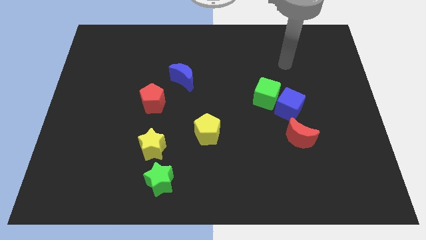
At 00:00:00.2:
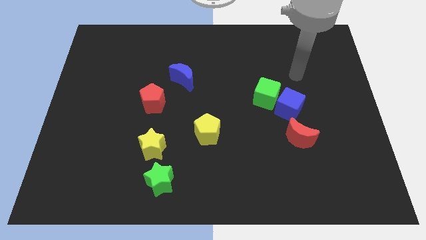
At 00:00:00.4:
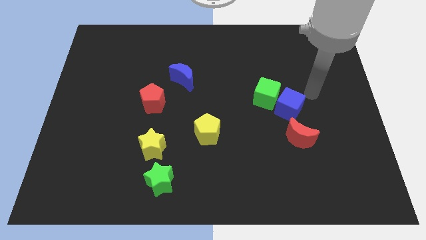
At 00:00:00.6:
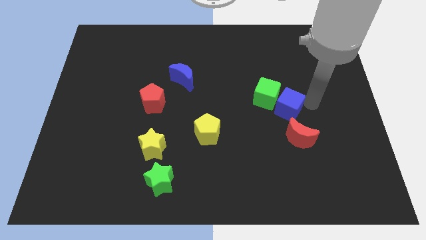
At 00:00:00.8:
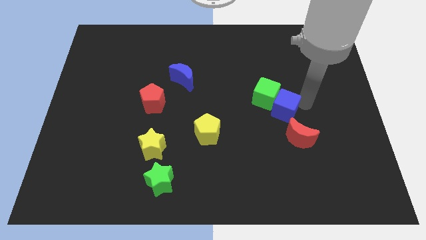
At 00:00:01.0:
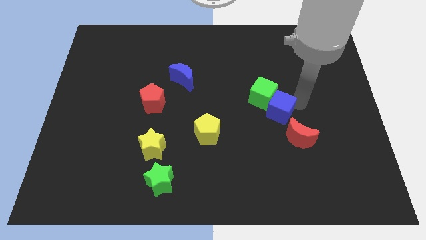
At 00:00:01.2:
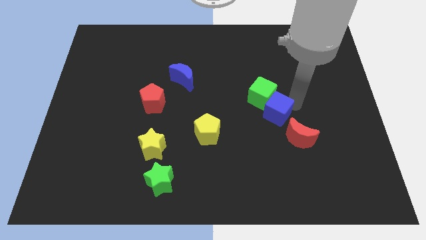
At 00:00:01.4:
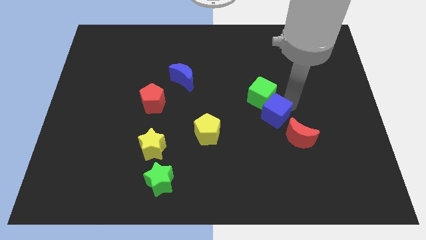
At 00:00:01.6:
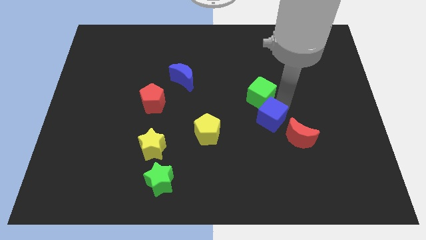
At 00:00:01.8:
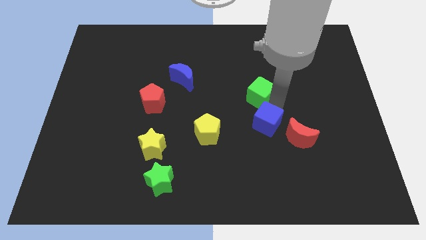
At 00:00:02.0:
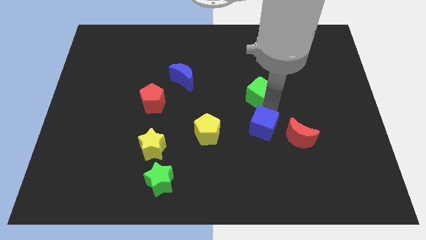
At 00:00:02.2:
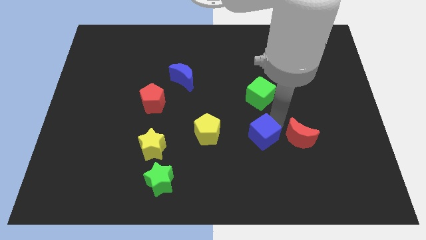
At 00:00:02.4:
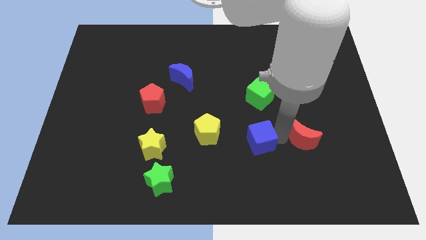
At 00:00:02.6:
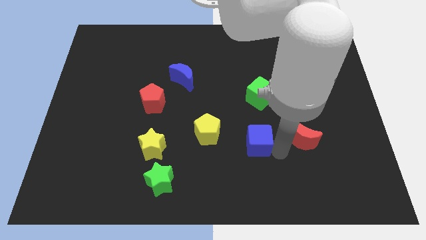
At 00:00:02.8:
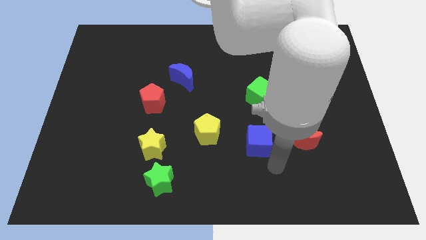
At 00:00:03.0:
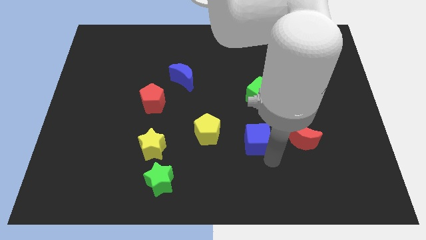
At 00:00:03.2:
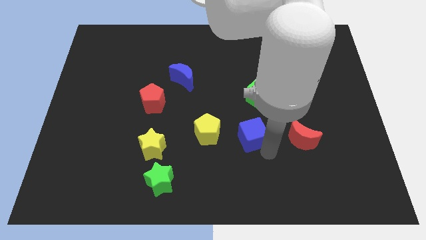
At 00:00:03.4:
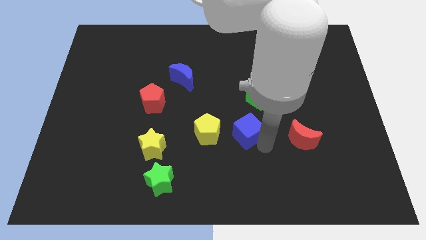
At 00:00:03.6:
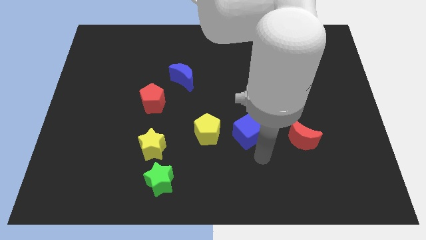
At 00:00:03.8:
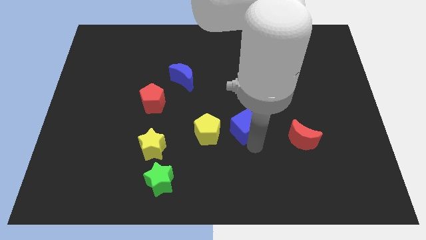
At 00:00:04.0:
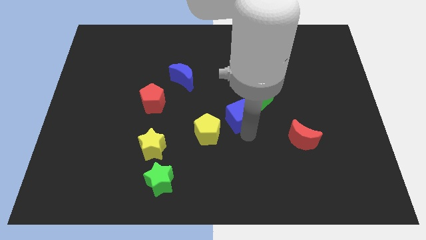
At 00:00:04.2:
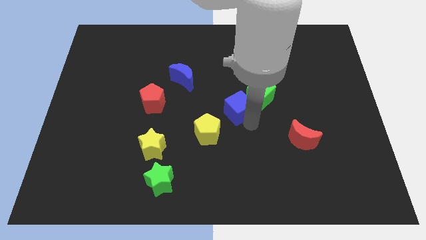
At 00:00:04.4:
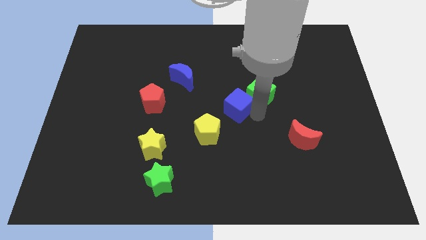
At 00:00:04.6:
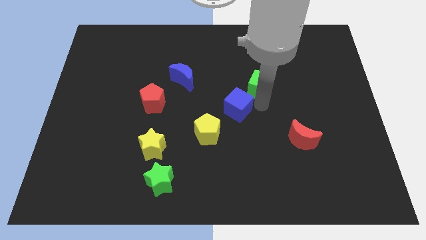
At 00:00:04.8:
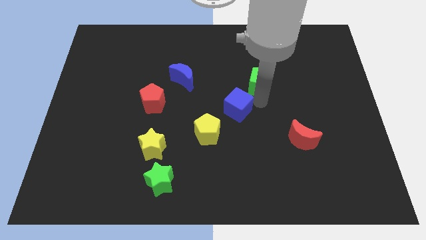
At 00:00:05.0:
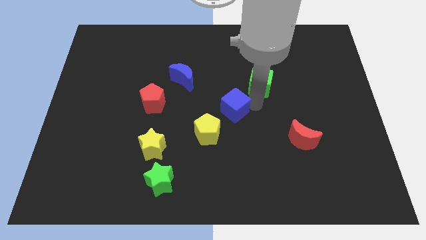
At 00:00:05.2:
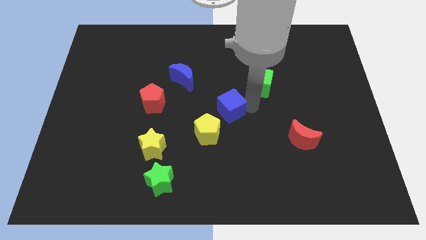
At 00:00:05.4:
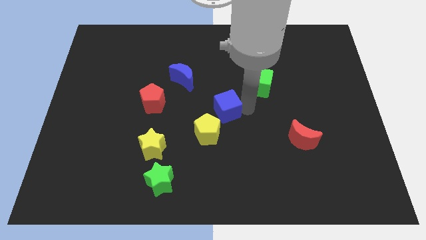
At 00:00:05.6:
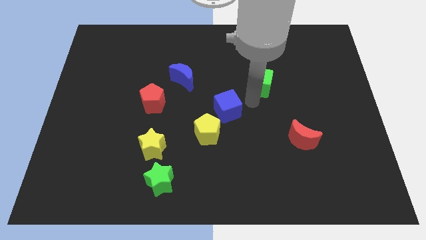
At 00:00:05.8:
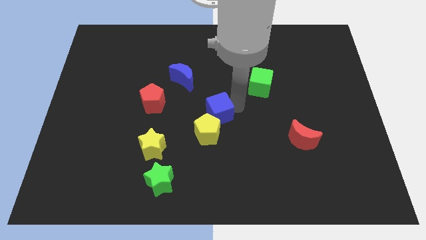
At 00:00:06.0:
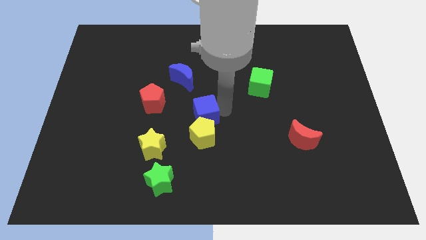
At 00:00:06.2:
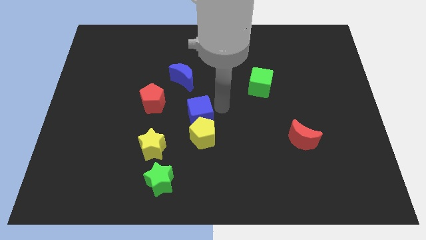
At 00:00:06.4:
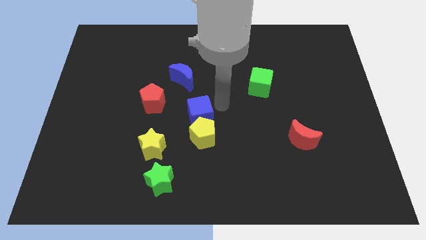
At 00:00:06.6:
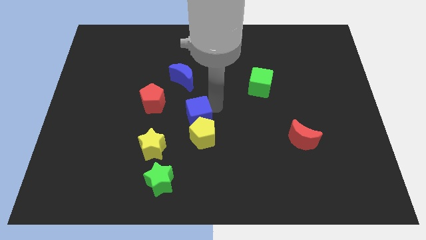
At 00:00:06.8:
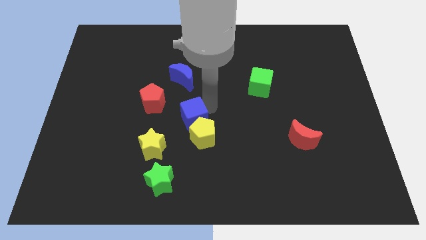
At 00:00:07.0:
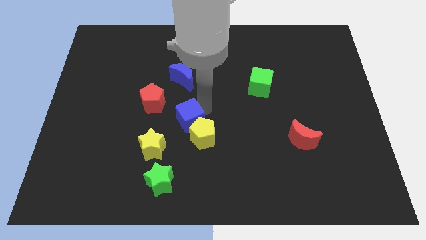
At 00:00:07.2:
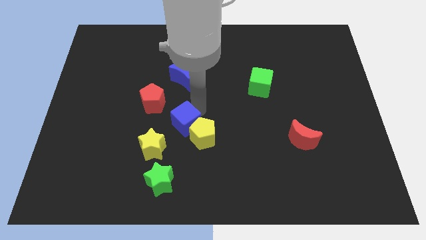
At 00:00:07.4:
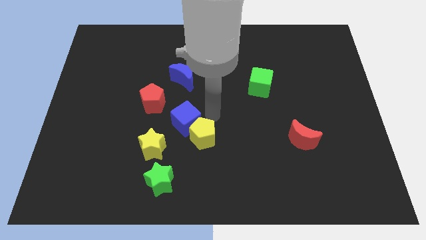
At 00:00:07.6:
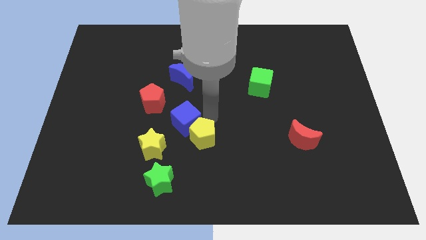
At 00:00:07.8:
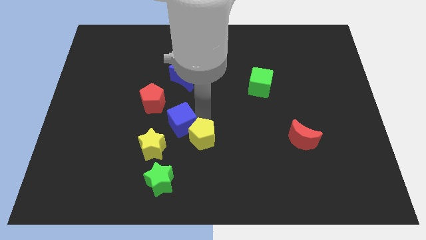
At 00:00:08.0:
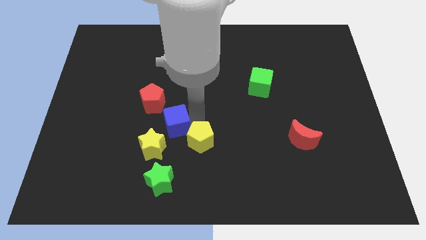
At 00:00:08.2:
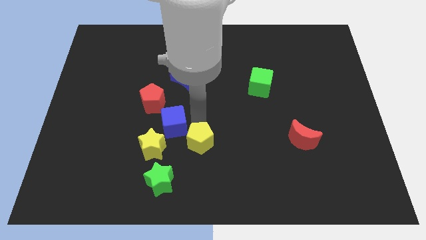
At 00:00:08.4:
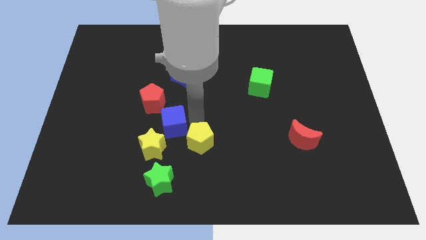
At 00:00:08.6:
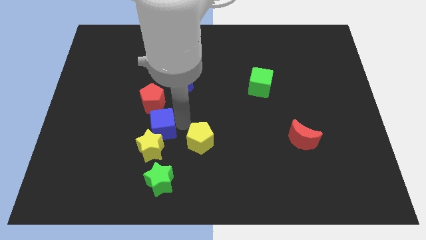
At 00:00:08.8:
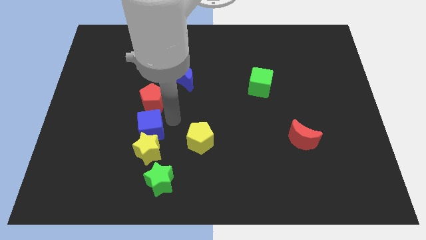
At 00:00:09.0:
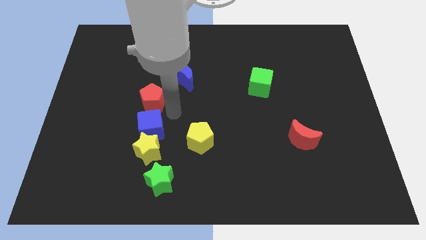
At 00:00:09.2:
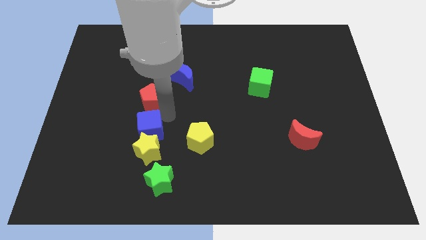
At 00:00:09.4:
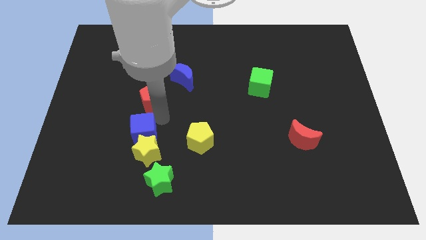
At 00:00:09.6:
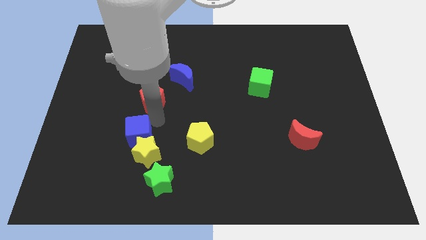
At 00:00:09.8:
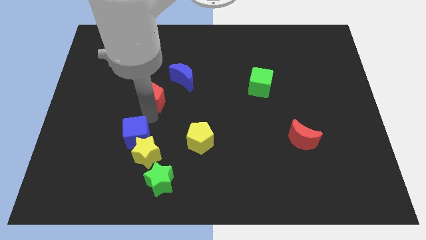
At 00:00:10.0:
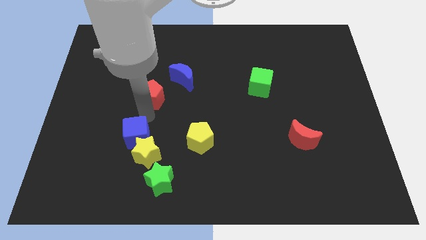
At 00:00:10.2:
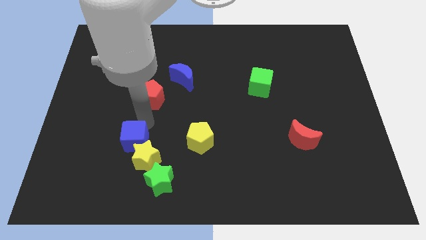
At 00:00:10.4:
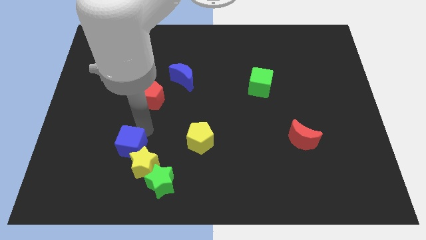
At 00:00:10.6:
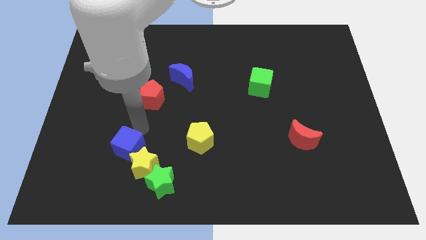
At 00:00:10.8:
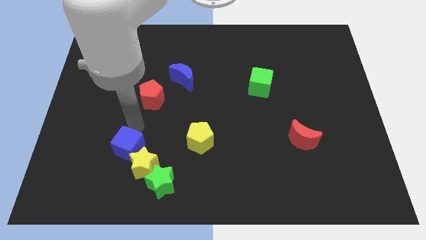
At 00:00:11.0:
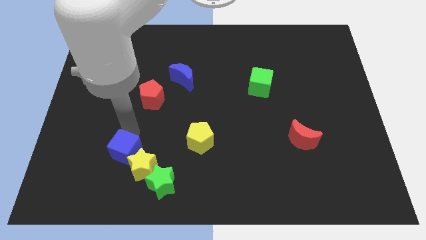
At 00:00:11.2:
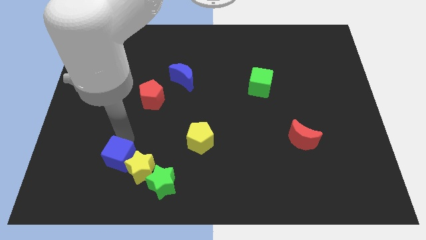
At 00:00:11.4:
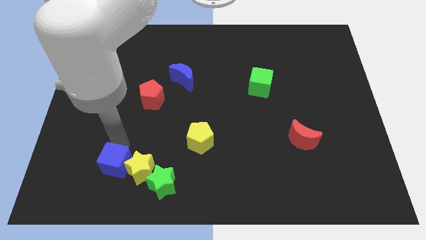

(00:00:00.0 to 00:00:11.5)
move the blue cube to the bottom left side of the yellow star

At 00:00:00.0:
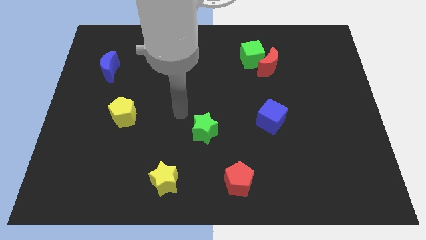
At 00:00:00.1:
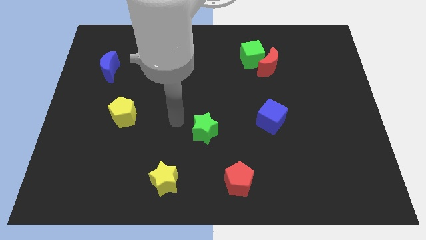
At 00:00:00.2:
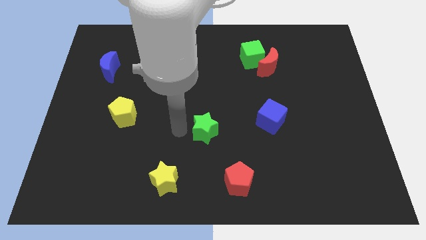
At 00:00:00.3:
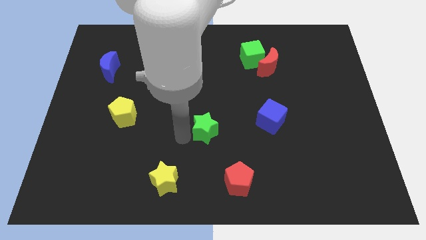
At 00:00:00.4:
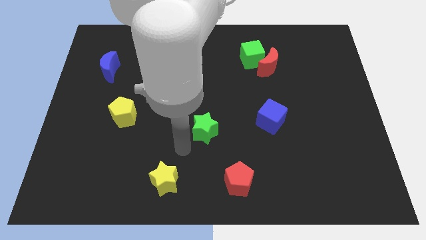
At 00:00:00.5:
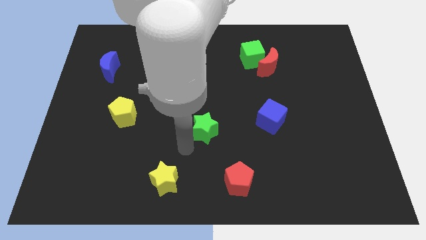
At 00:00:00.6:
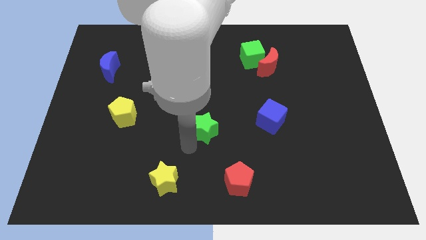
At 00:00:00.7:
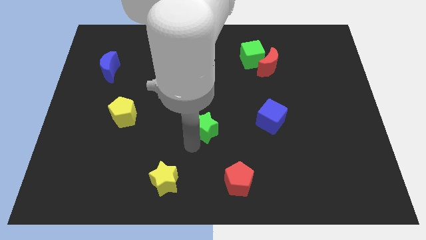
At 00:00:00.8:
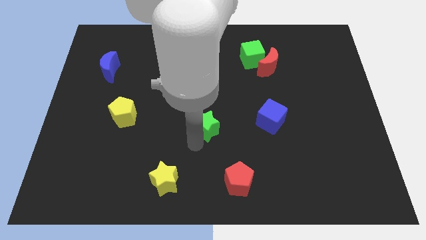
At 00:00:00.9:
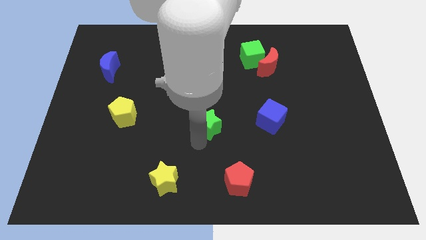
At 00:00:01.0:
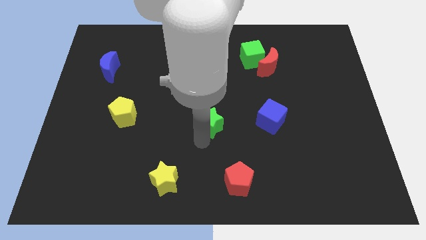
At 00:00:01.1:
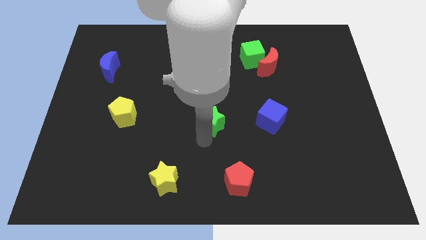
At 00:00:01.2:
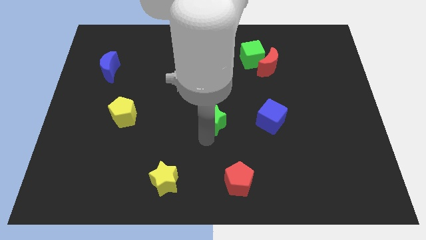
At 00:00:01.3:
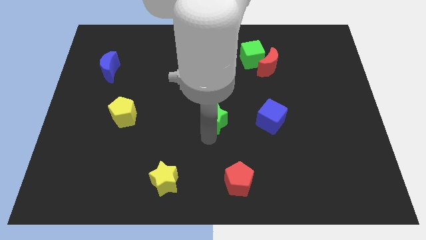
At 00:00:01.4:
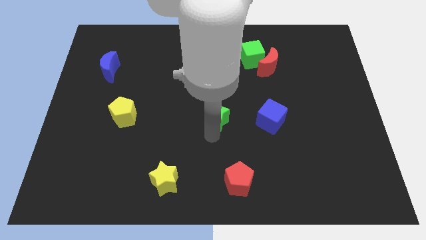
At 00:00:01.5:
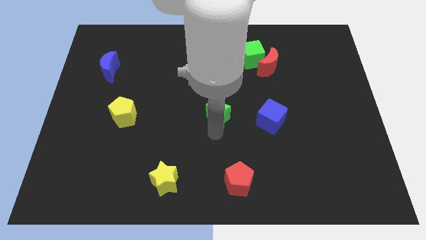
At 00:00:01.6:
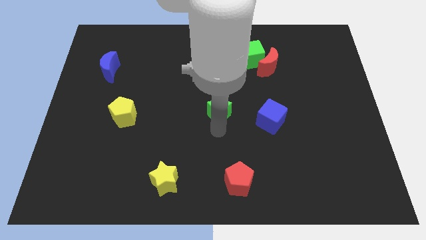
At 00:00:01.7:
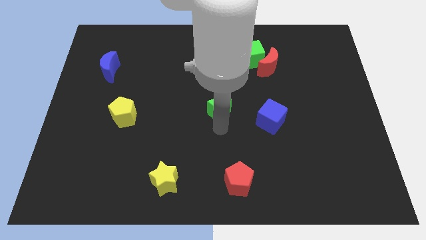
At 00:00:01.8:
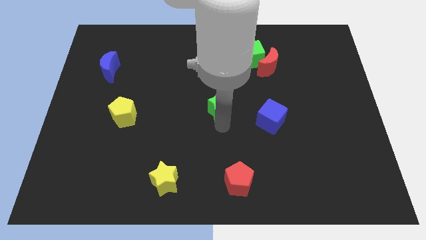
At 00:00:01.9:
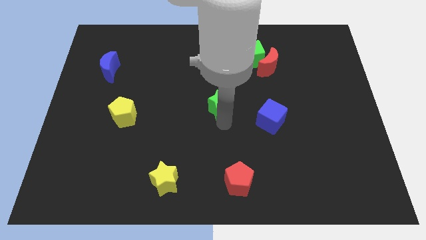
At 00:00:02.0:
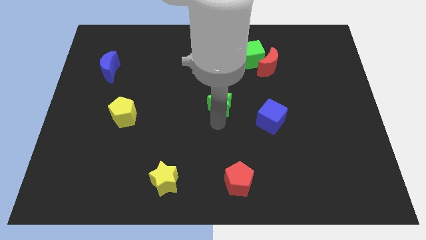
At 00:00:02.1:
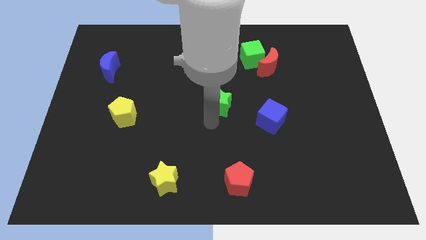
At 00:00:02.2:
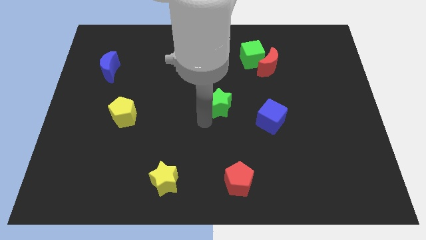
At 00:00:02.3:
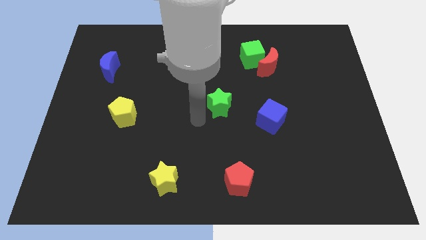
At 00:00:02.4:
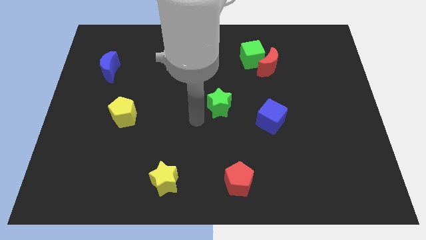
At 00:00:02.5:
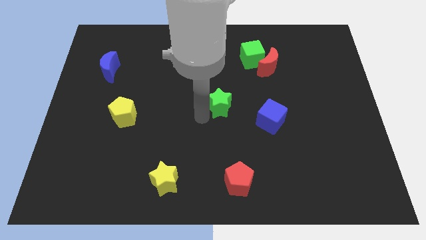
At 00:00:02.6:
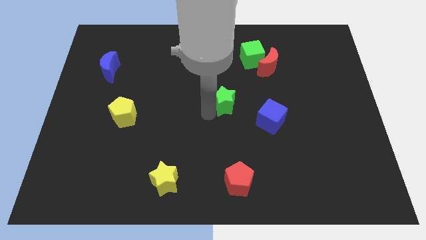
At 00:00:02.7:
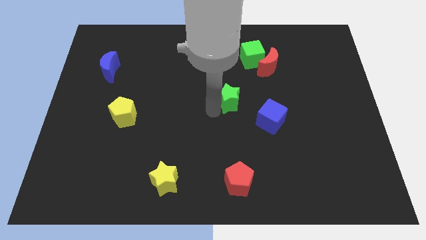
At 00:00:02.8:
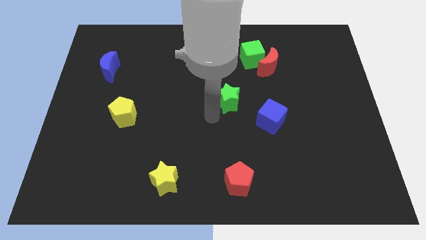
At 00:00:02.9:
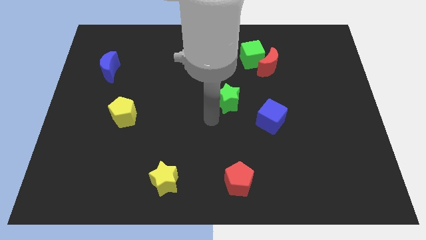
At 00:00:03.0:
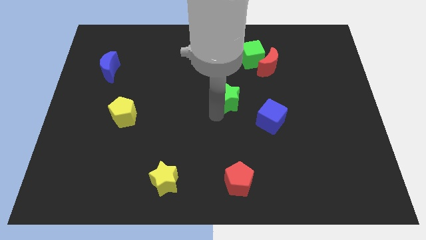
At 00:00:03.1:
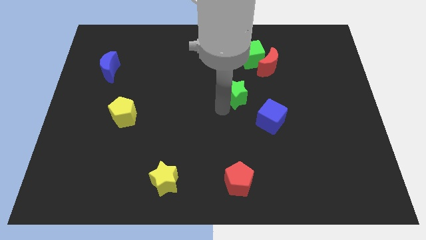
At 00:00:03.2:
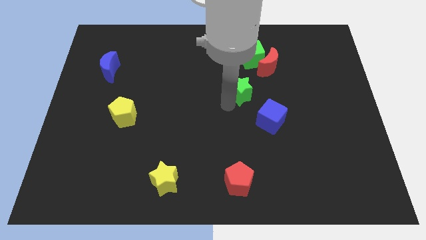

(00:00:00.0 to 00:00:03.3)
push the green star to the bottom left side of the red moon
